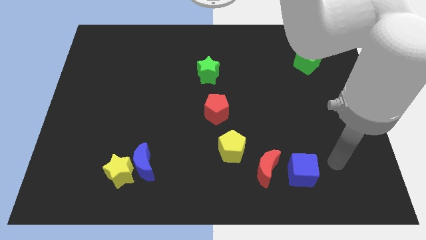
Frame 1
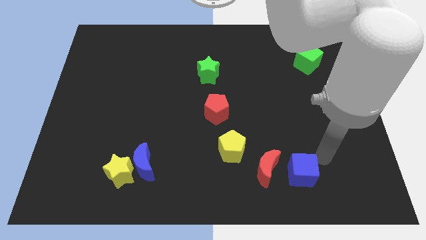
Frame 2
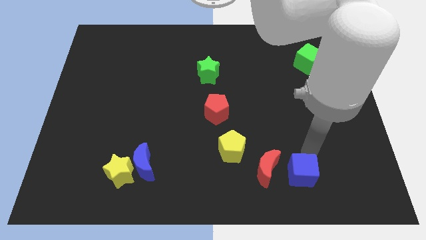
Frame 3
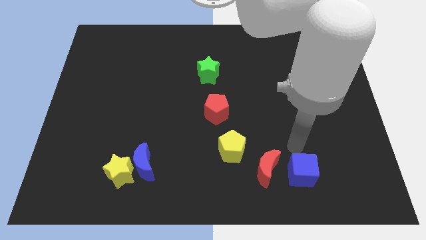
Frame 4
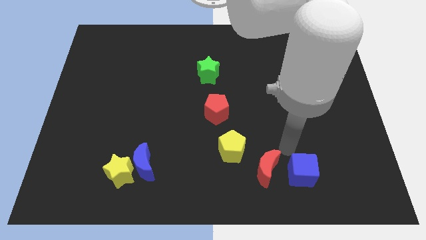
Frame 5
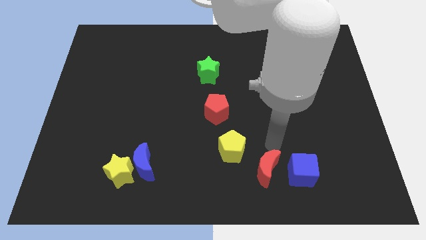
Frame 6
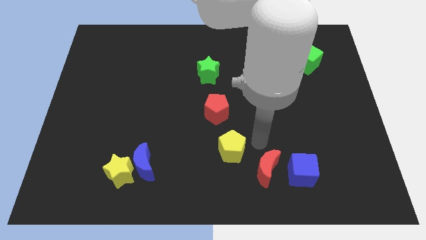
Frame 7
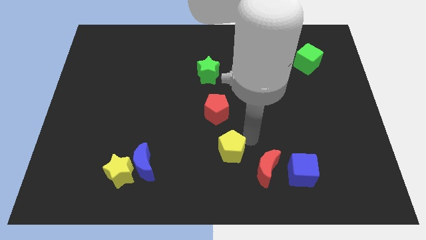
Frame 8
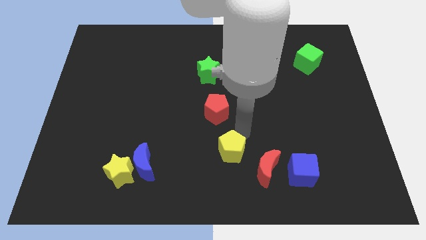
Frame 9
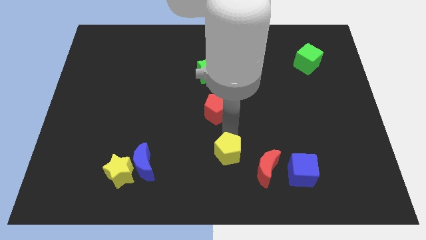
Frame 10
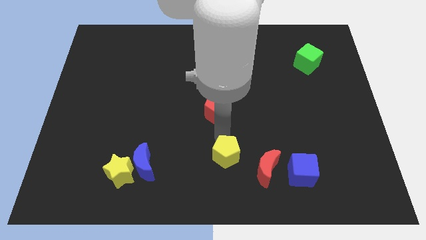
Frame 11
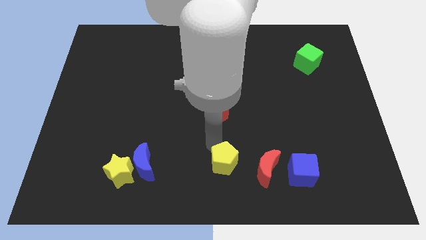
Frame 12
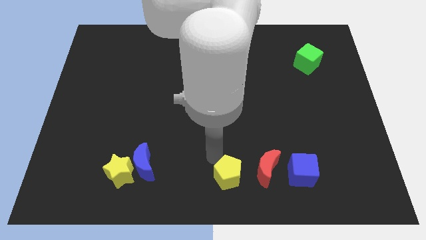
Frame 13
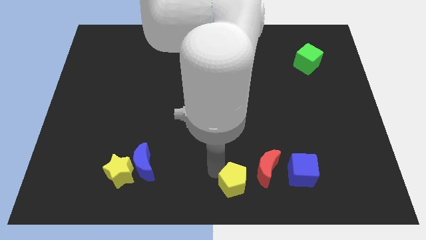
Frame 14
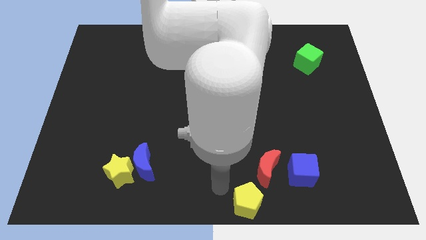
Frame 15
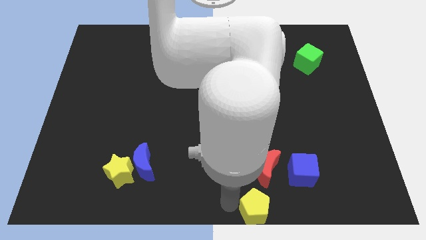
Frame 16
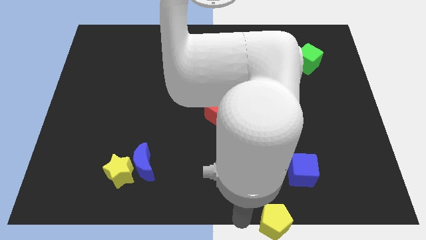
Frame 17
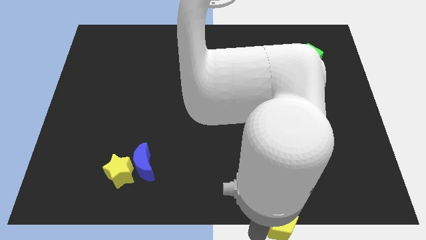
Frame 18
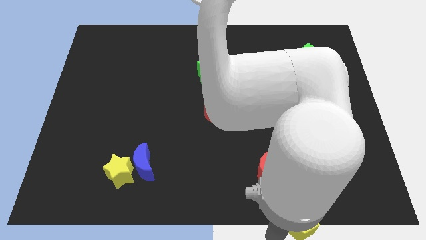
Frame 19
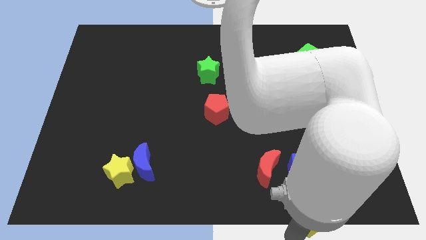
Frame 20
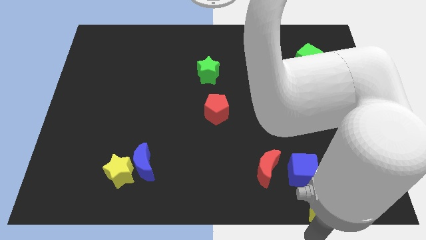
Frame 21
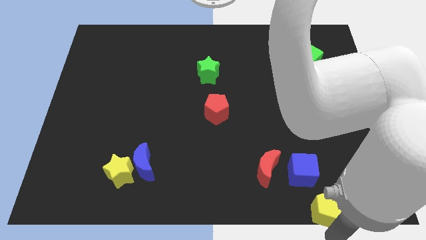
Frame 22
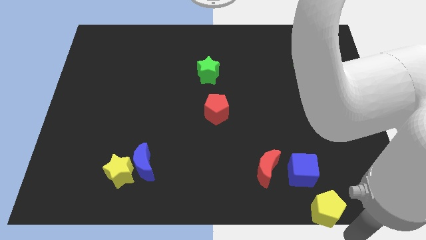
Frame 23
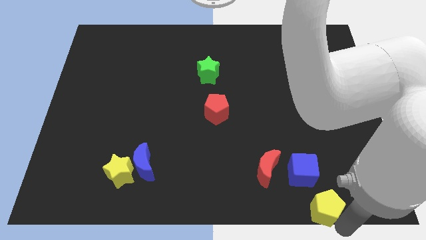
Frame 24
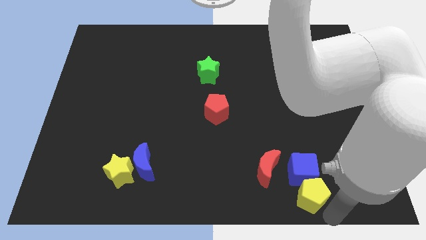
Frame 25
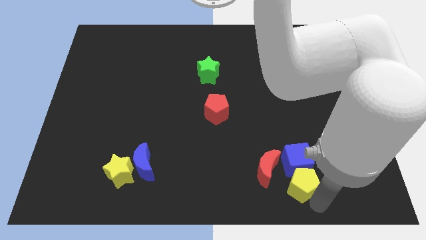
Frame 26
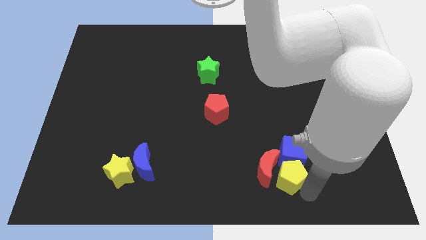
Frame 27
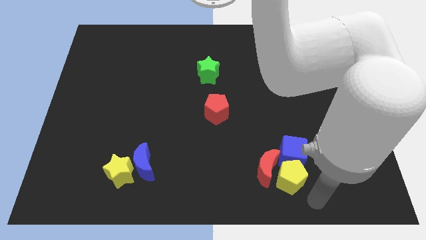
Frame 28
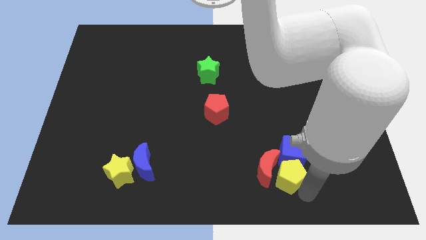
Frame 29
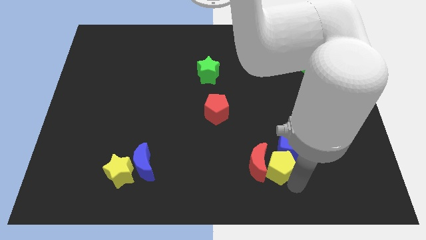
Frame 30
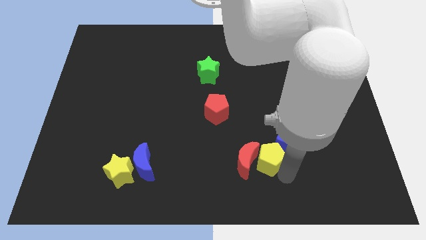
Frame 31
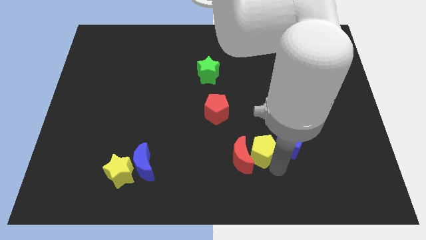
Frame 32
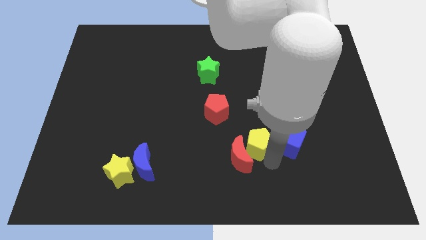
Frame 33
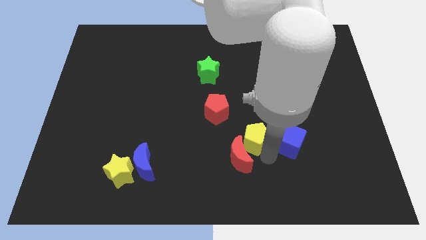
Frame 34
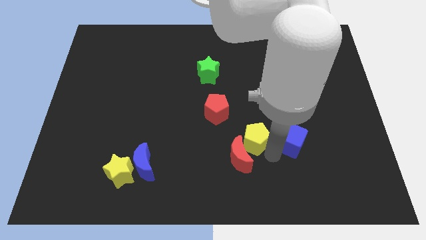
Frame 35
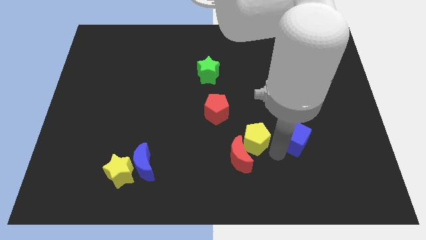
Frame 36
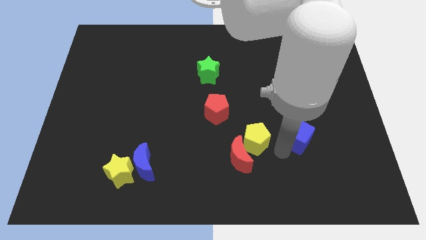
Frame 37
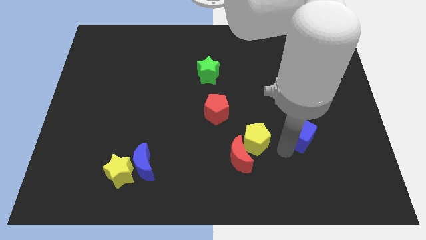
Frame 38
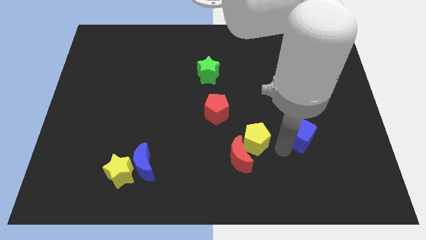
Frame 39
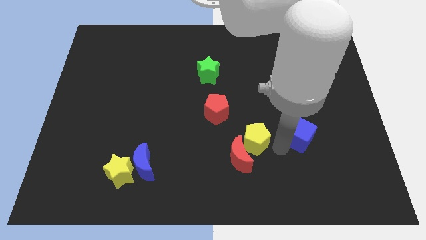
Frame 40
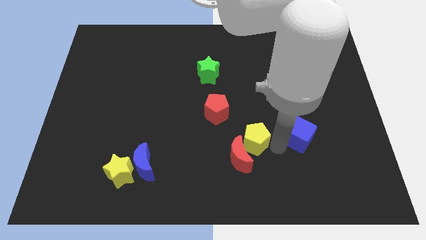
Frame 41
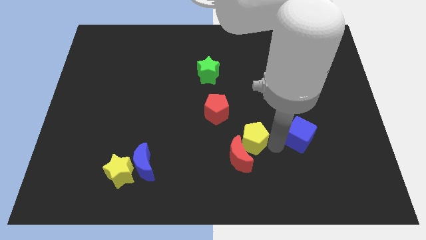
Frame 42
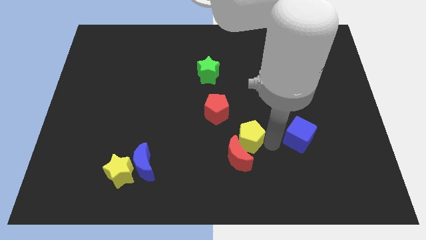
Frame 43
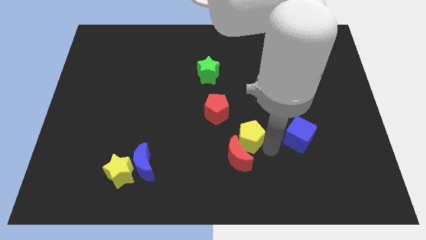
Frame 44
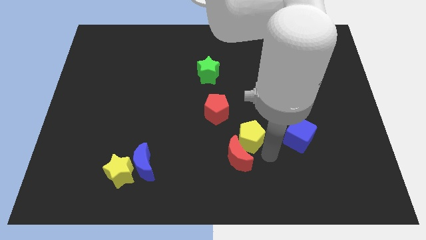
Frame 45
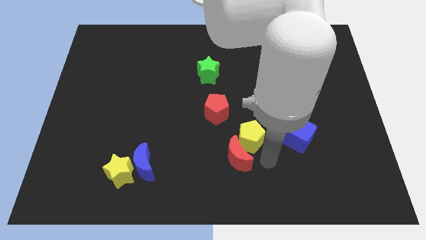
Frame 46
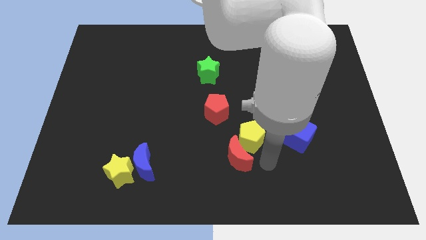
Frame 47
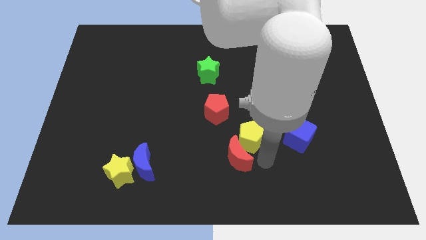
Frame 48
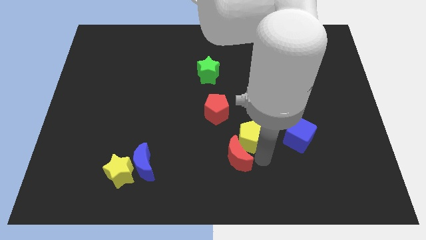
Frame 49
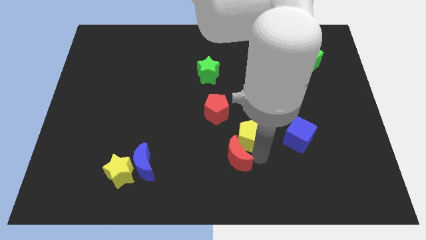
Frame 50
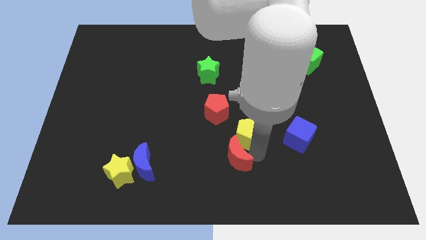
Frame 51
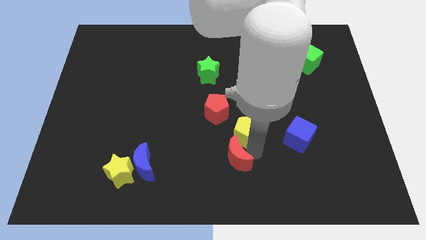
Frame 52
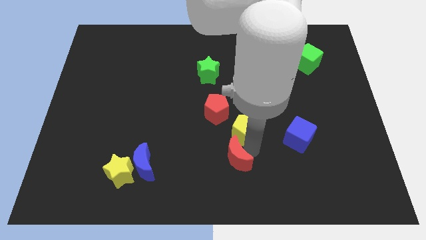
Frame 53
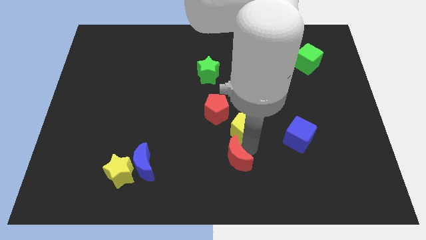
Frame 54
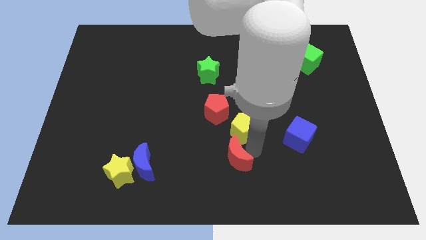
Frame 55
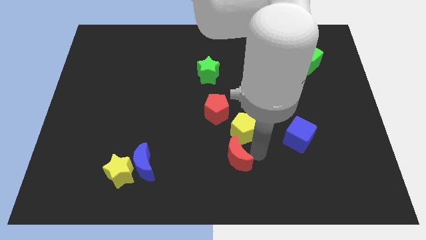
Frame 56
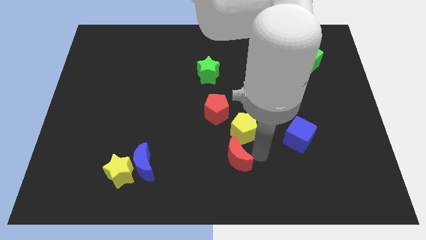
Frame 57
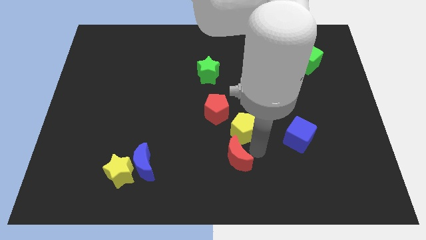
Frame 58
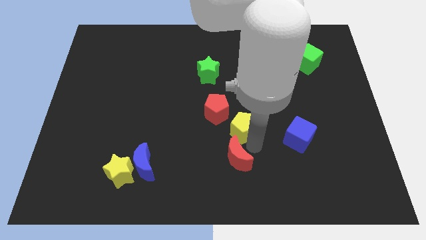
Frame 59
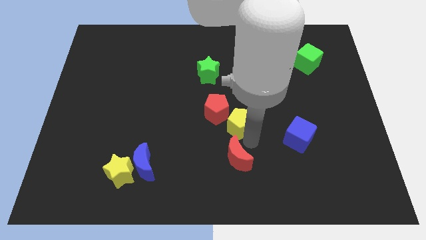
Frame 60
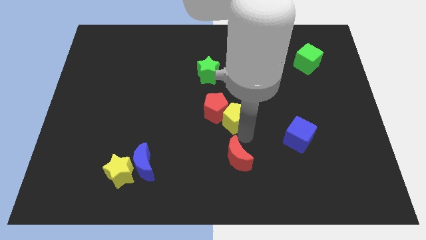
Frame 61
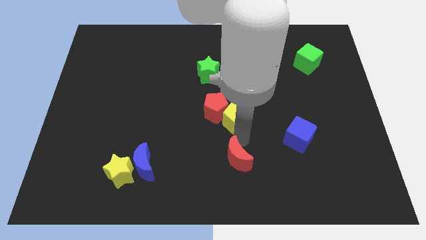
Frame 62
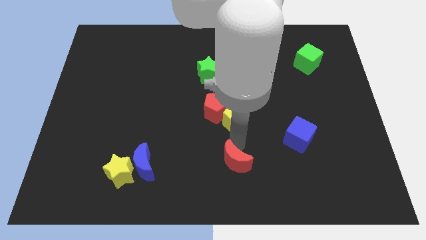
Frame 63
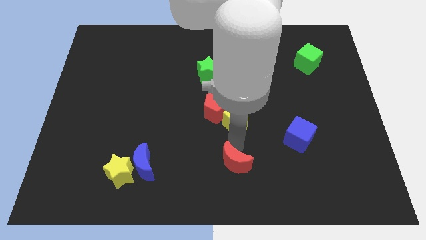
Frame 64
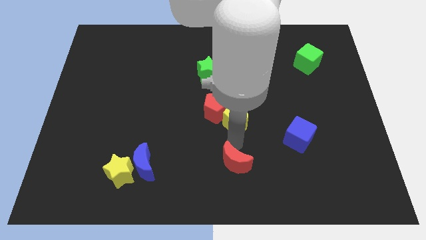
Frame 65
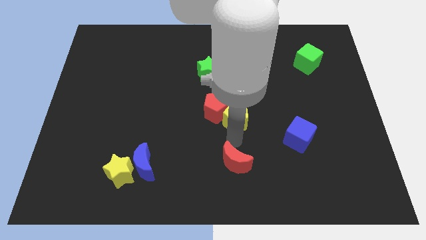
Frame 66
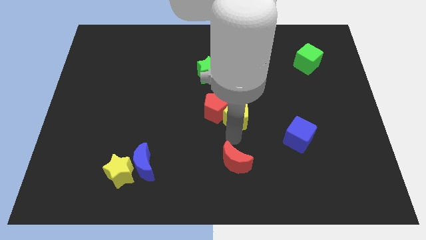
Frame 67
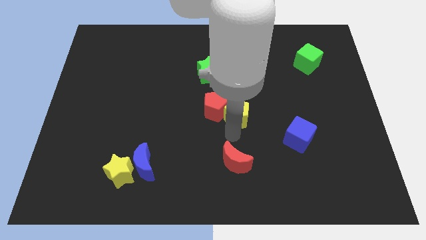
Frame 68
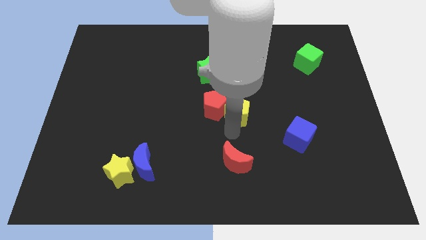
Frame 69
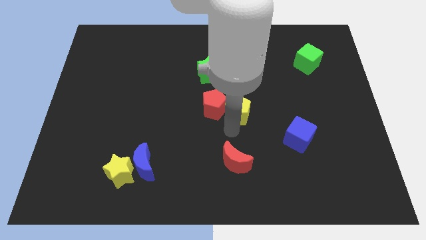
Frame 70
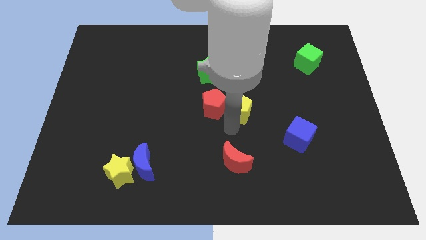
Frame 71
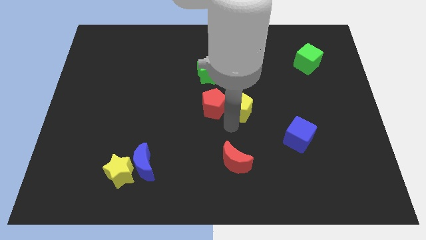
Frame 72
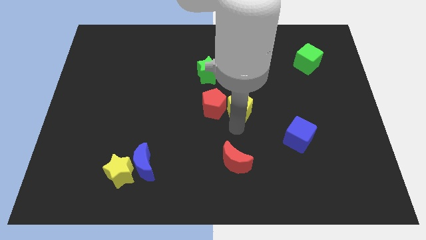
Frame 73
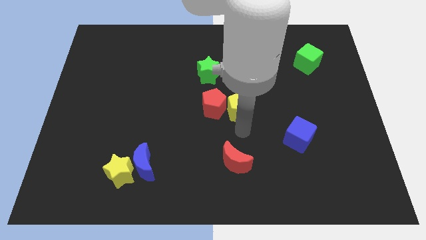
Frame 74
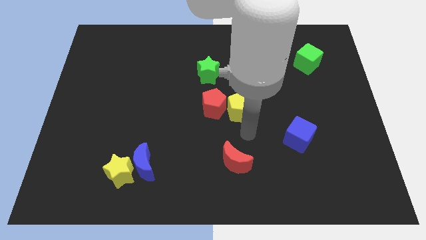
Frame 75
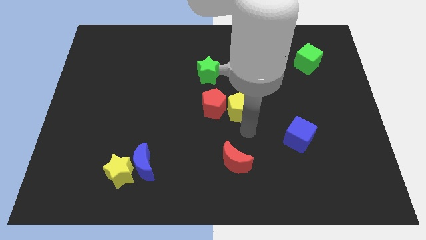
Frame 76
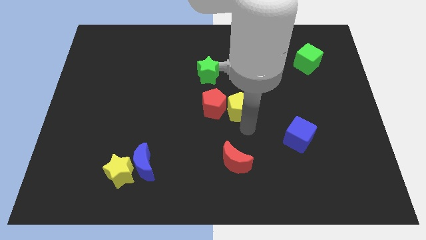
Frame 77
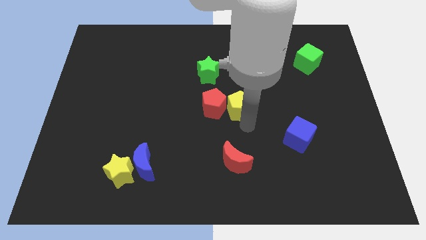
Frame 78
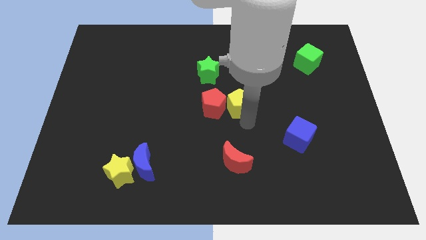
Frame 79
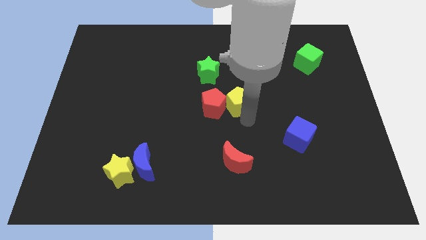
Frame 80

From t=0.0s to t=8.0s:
push the yellow pentagon to the bottom right side of the green star

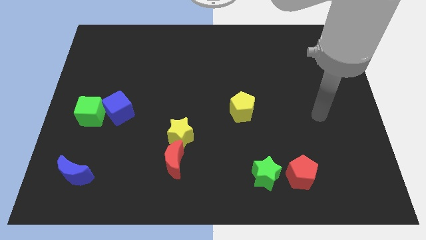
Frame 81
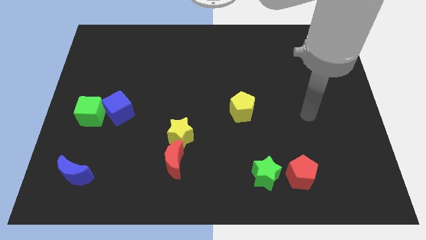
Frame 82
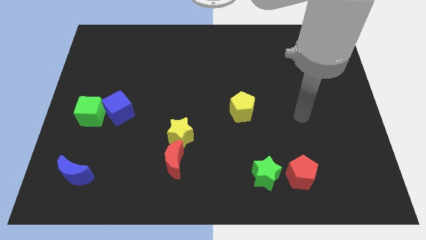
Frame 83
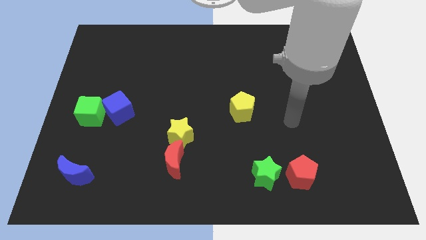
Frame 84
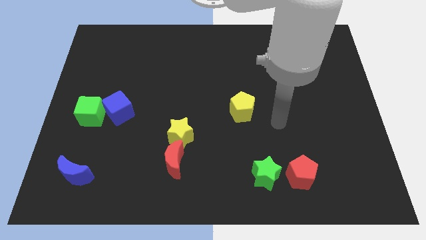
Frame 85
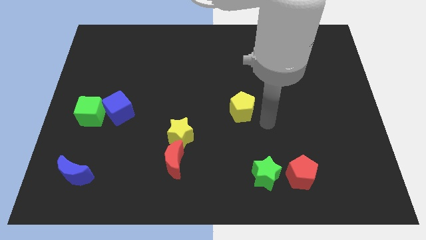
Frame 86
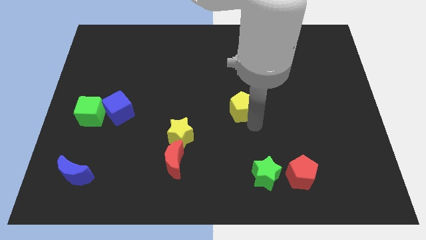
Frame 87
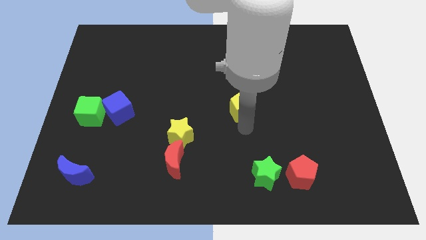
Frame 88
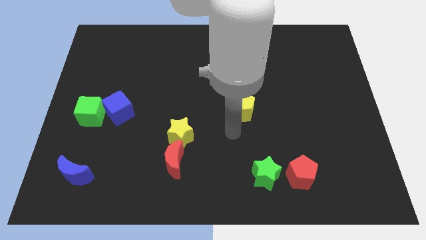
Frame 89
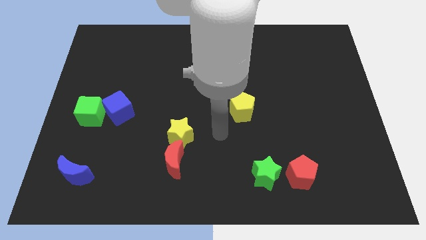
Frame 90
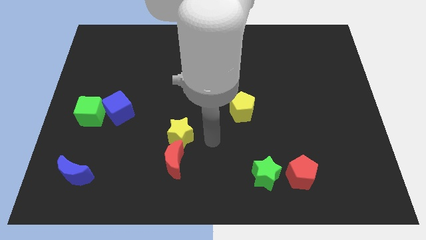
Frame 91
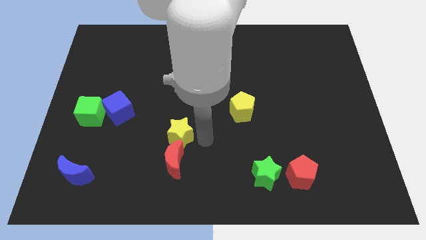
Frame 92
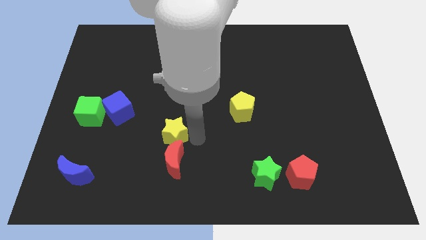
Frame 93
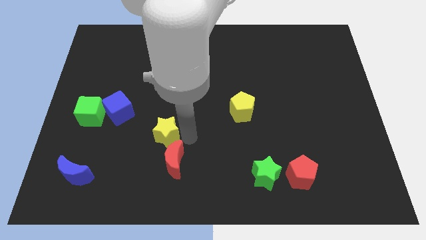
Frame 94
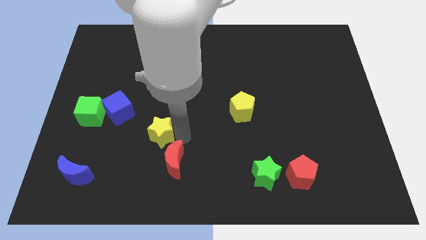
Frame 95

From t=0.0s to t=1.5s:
push the yellow star to the bottom right side of the blue cube
